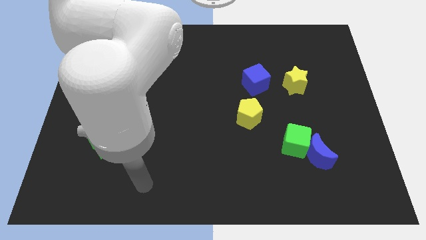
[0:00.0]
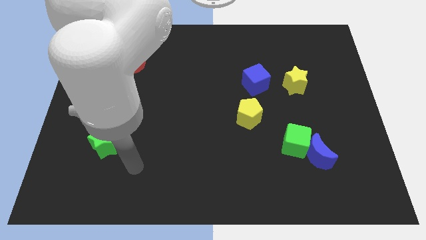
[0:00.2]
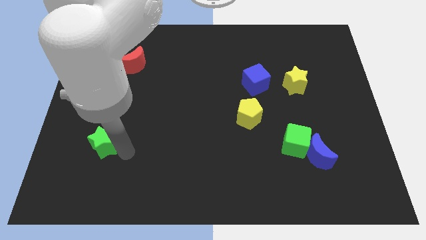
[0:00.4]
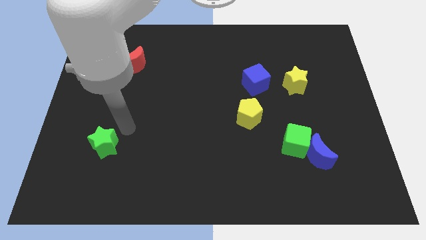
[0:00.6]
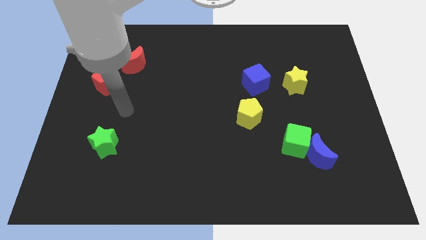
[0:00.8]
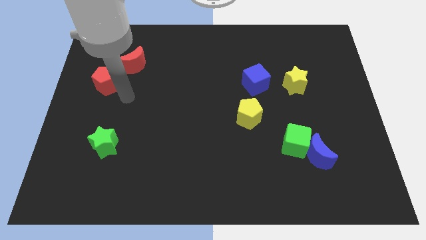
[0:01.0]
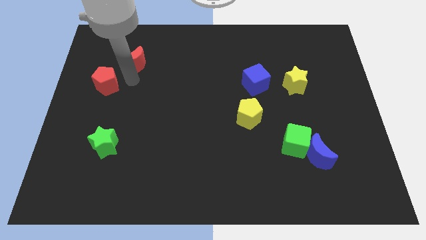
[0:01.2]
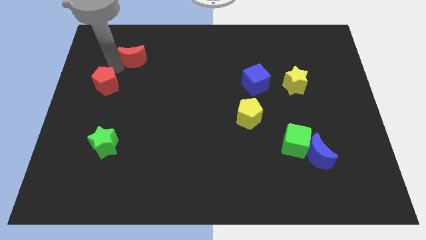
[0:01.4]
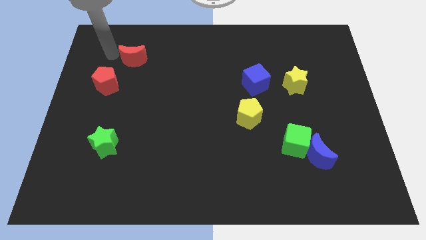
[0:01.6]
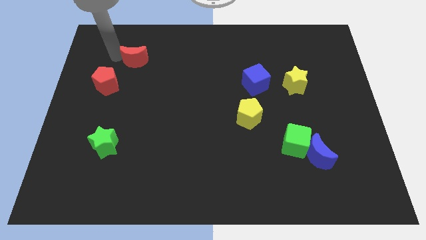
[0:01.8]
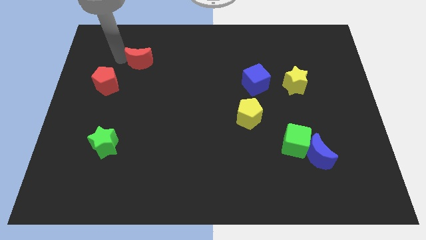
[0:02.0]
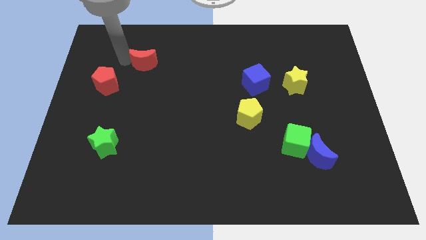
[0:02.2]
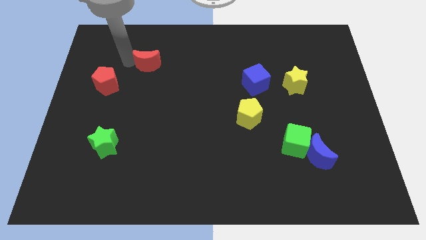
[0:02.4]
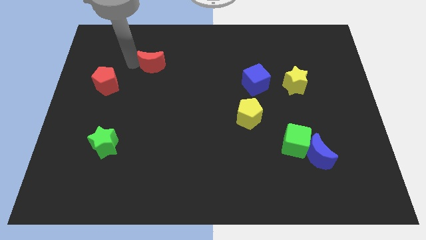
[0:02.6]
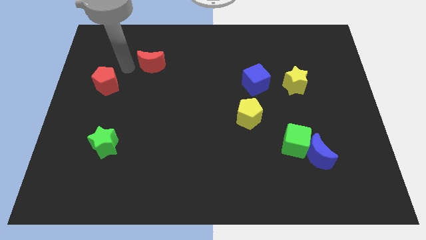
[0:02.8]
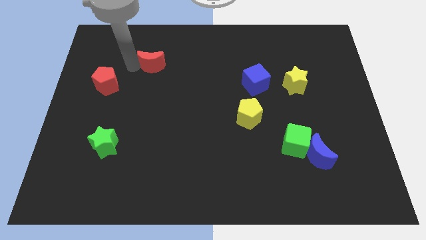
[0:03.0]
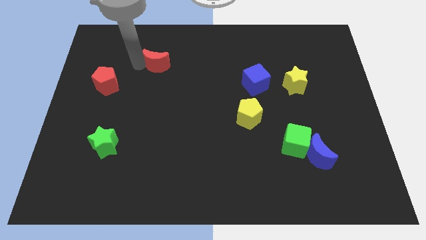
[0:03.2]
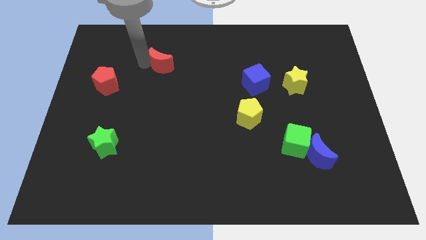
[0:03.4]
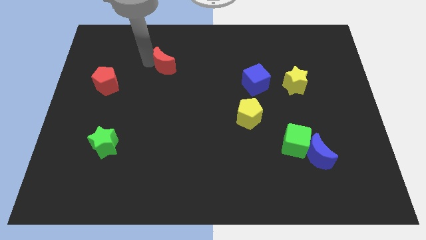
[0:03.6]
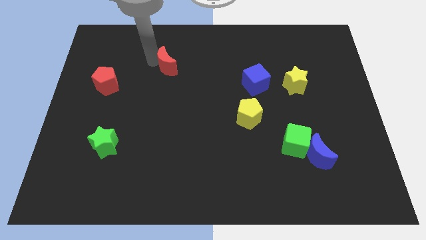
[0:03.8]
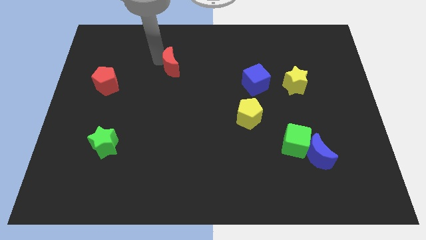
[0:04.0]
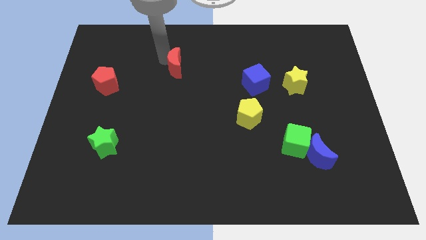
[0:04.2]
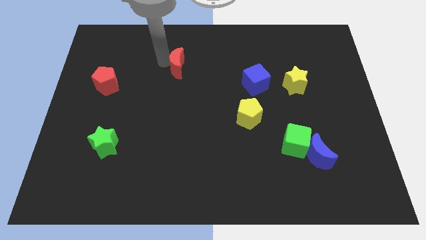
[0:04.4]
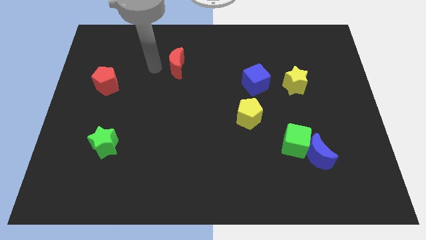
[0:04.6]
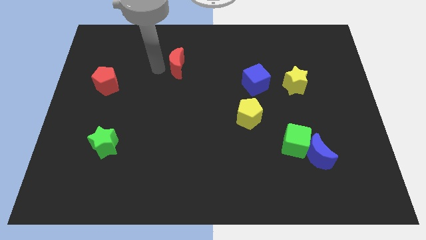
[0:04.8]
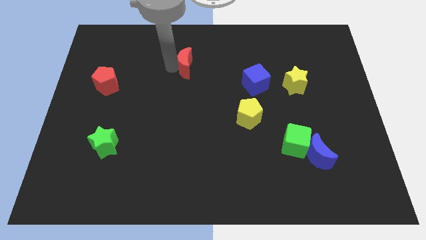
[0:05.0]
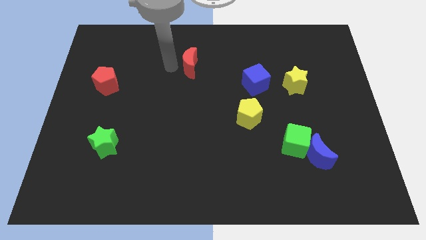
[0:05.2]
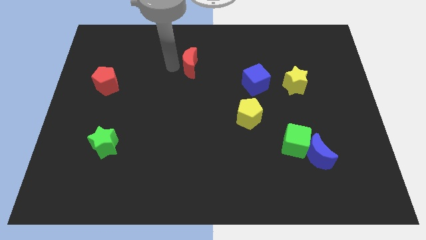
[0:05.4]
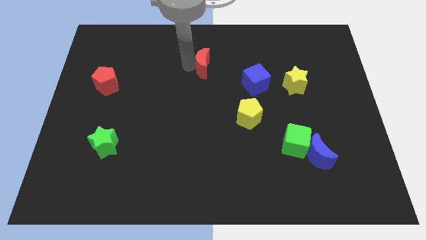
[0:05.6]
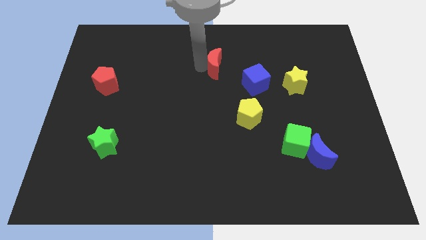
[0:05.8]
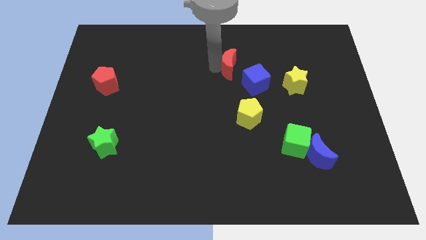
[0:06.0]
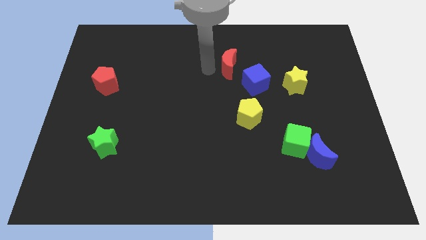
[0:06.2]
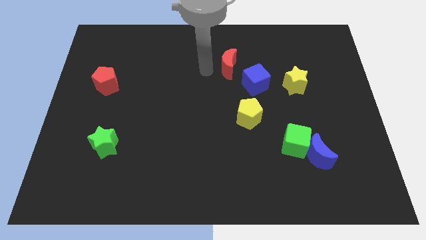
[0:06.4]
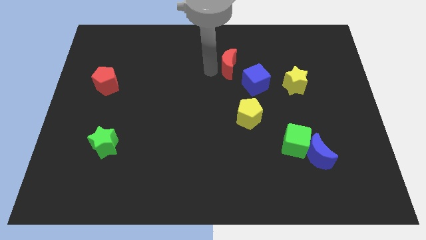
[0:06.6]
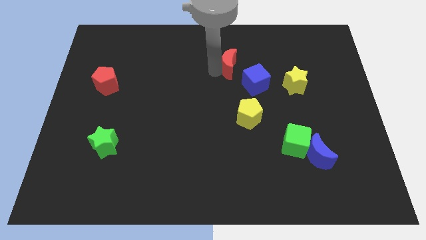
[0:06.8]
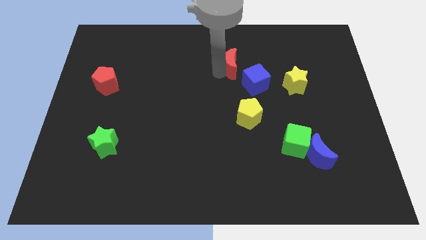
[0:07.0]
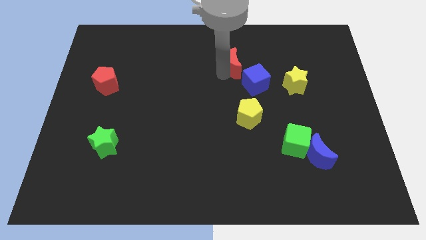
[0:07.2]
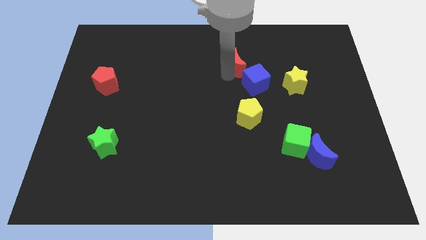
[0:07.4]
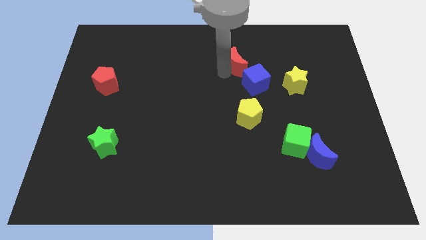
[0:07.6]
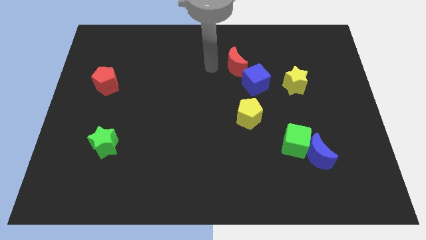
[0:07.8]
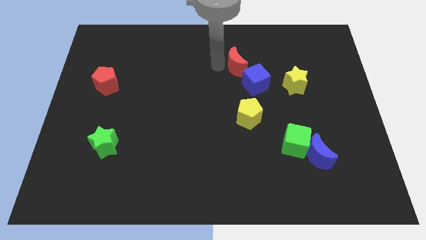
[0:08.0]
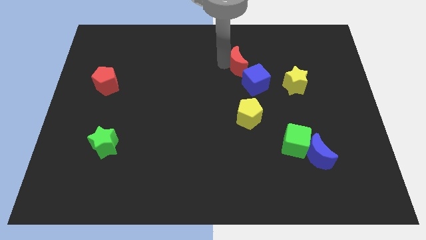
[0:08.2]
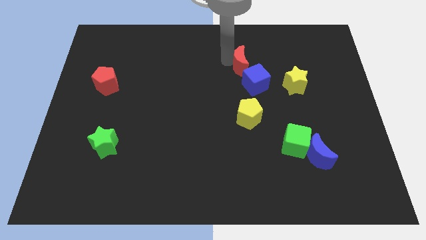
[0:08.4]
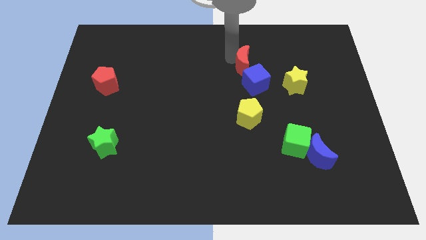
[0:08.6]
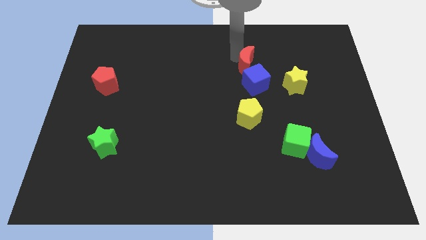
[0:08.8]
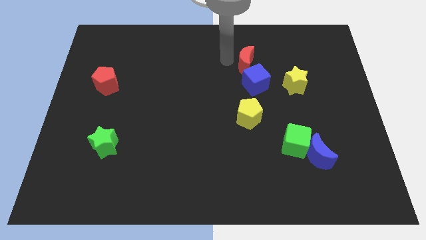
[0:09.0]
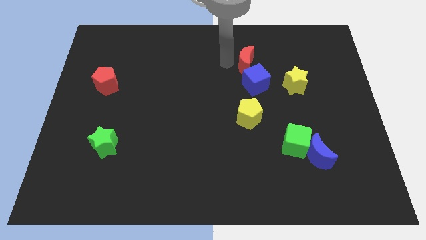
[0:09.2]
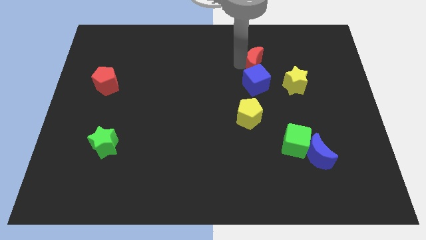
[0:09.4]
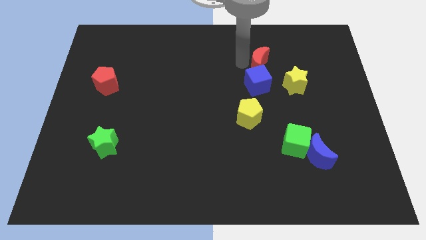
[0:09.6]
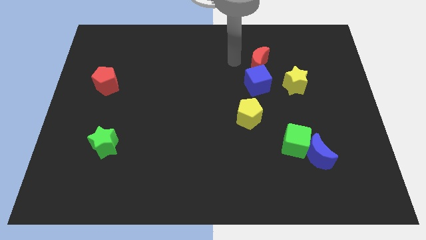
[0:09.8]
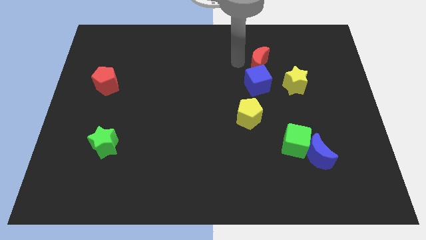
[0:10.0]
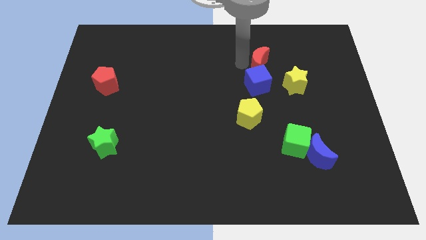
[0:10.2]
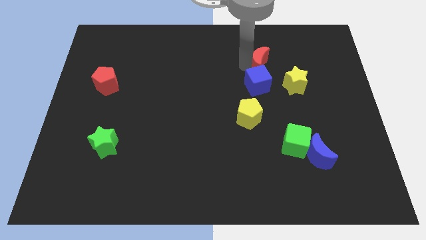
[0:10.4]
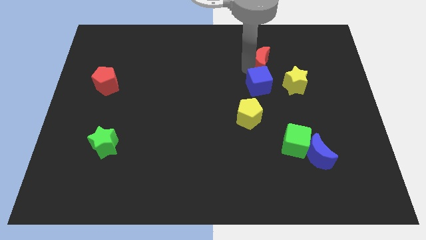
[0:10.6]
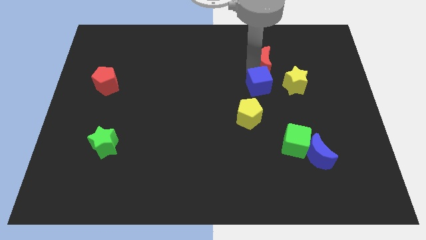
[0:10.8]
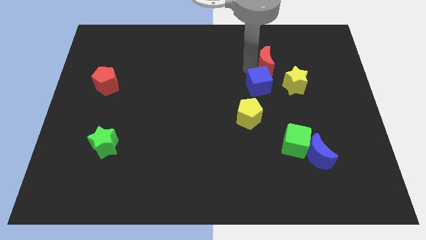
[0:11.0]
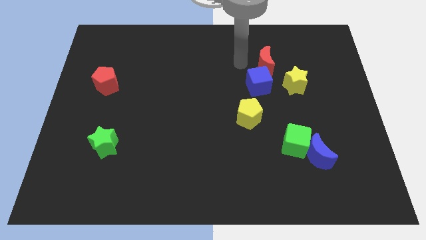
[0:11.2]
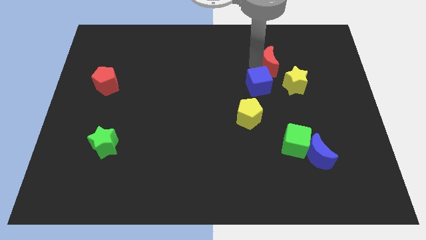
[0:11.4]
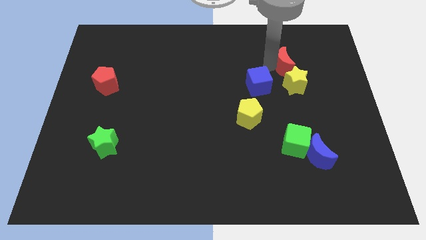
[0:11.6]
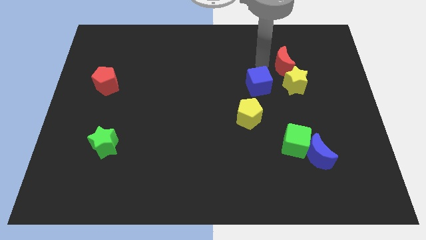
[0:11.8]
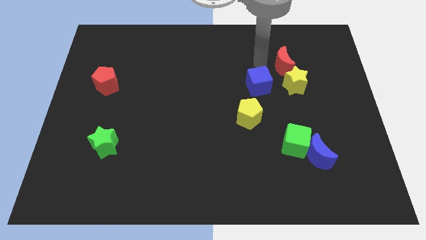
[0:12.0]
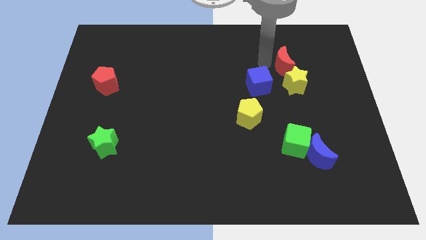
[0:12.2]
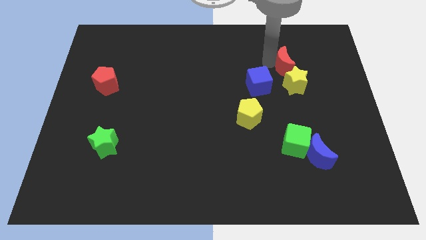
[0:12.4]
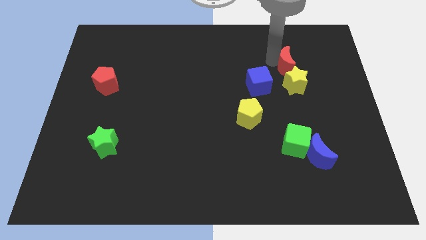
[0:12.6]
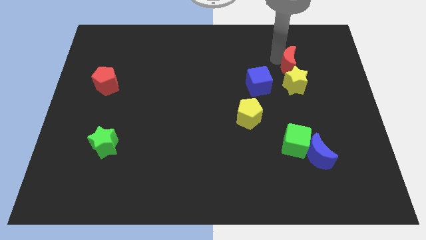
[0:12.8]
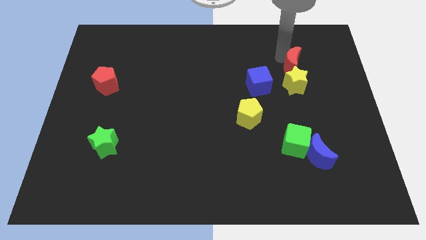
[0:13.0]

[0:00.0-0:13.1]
push the red moon diagonally up and to the right of the yellow star

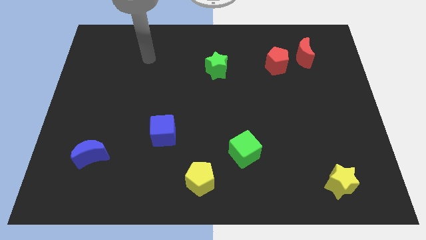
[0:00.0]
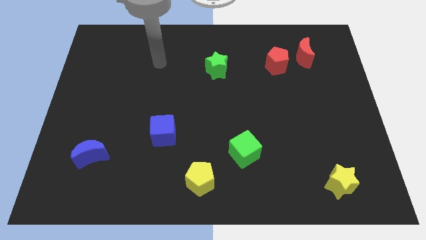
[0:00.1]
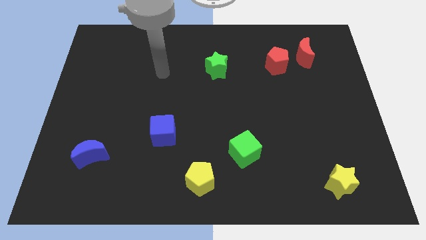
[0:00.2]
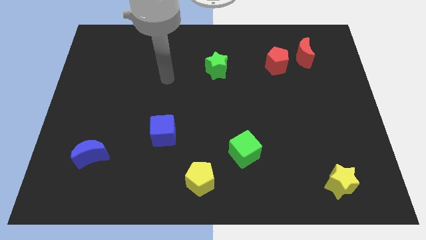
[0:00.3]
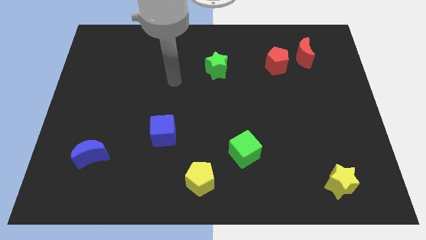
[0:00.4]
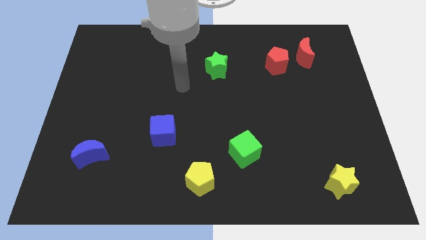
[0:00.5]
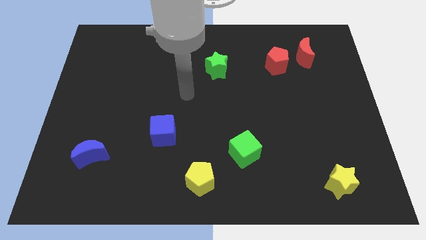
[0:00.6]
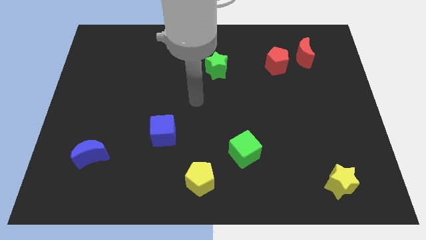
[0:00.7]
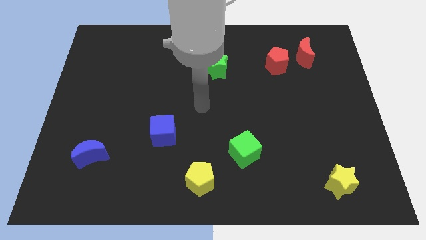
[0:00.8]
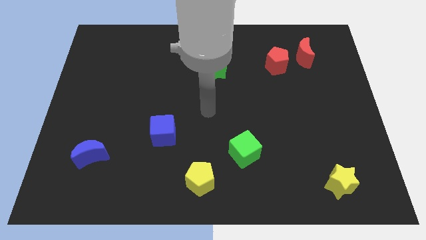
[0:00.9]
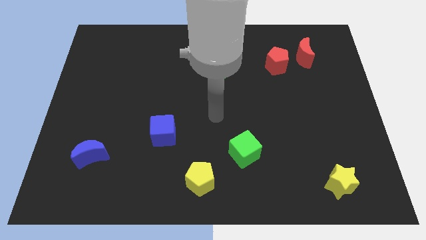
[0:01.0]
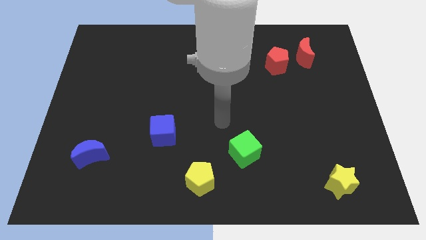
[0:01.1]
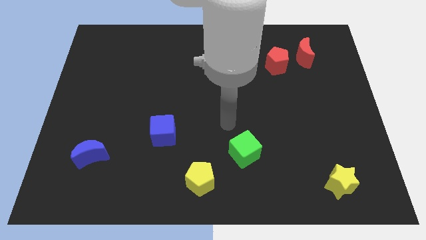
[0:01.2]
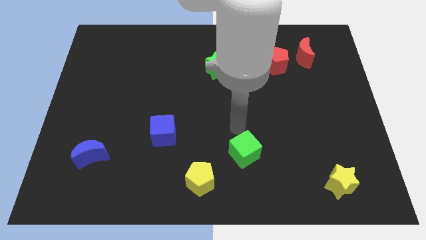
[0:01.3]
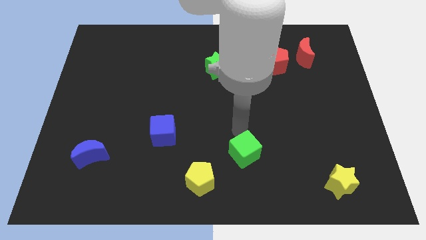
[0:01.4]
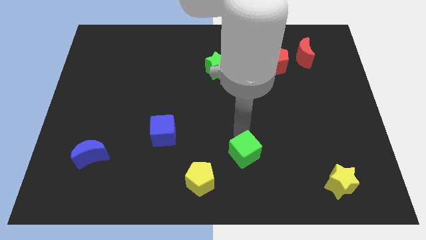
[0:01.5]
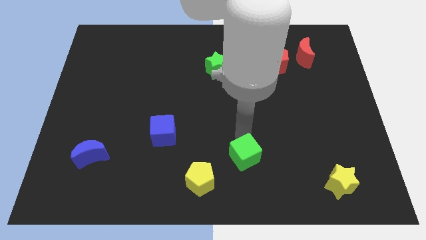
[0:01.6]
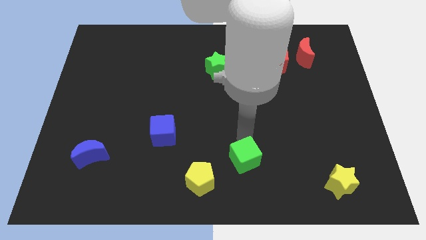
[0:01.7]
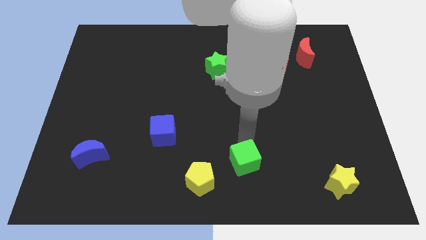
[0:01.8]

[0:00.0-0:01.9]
put the green cube right of the yellow pentagon
